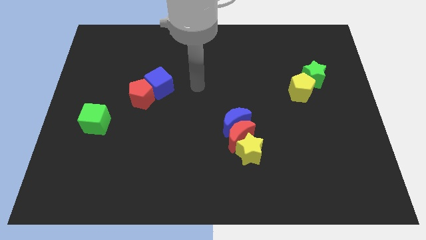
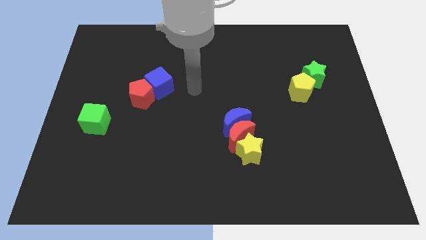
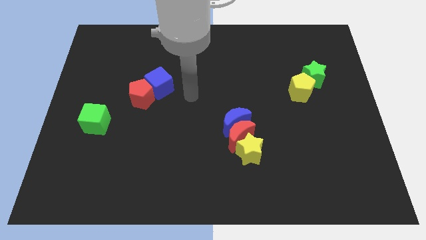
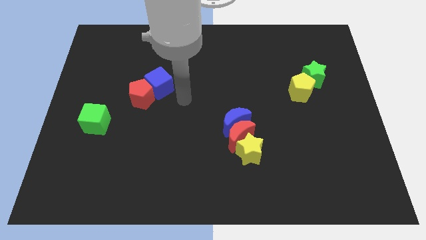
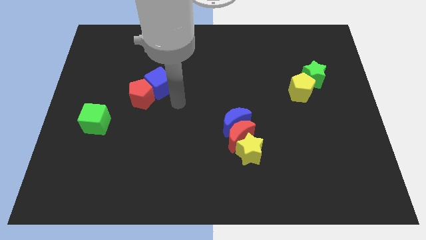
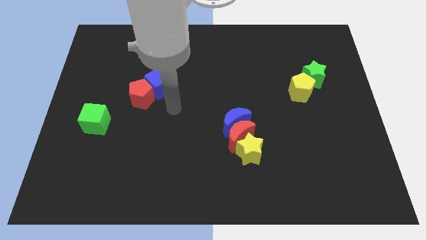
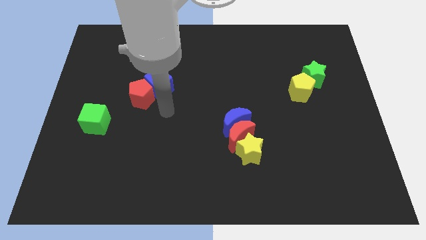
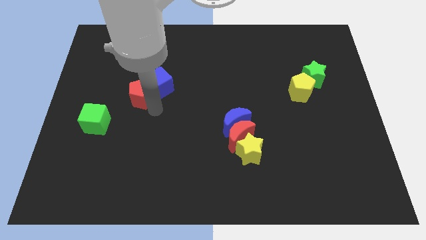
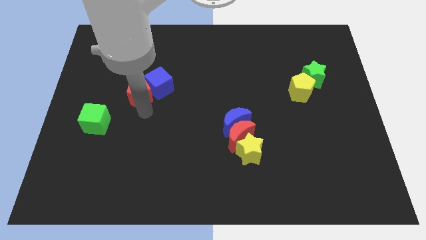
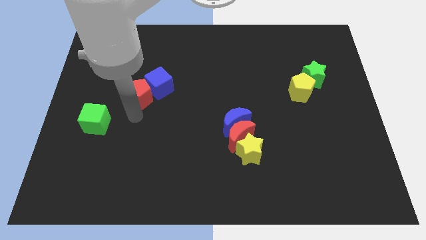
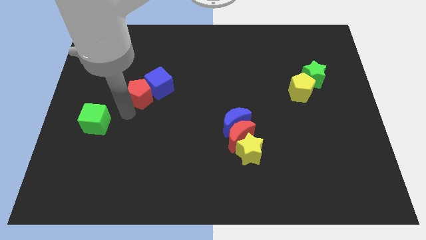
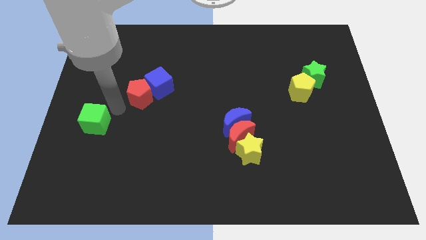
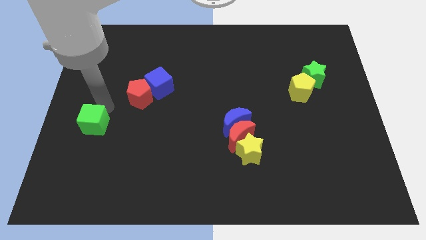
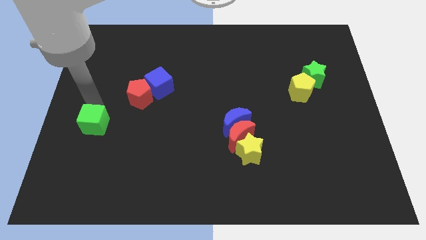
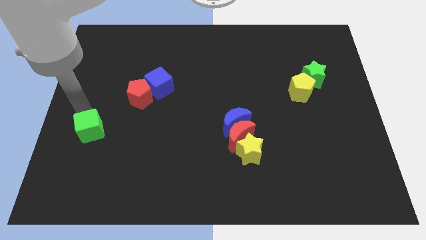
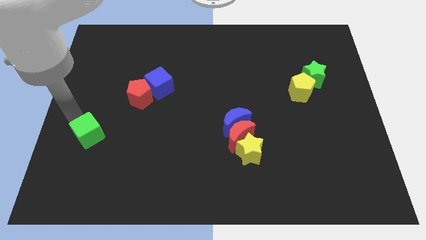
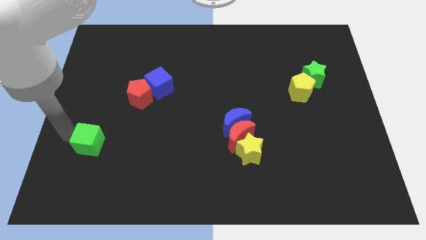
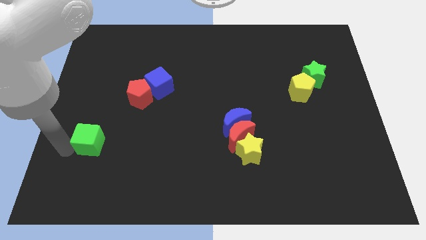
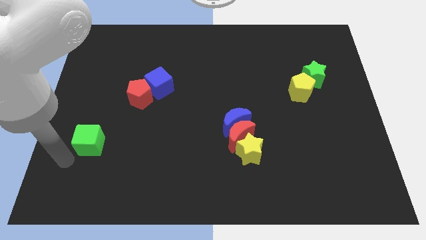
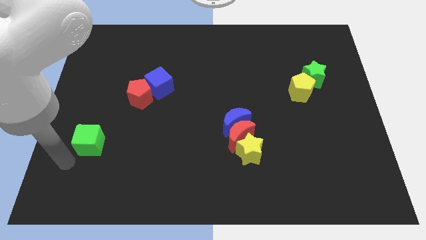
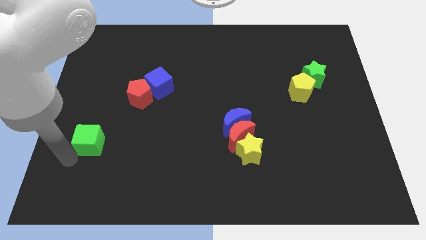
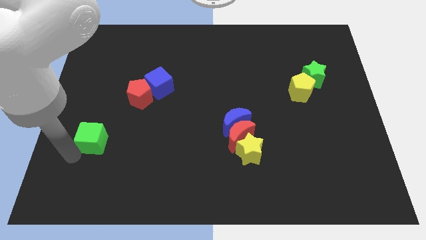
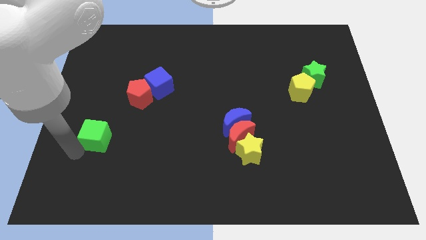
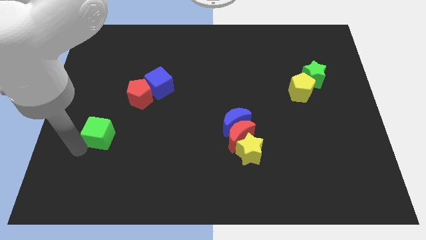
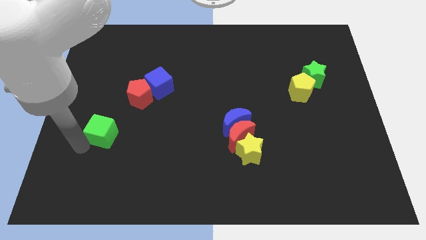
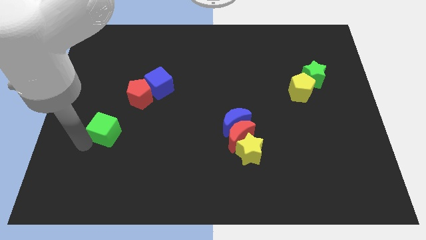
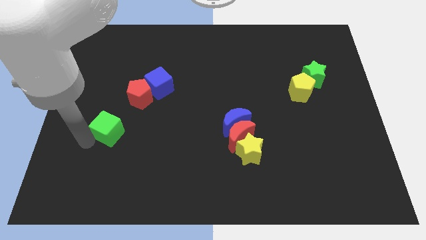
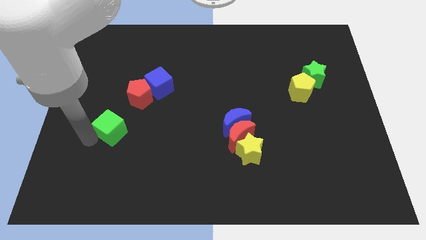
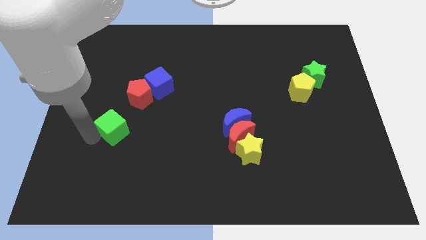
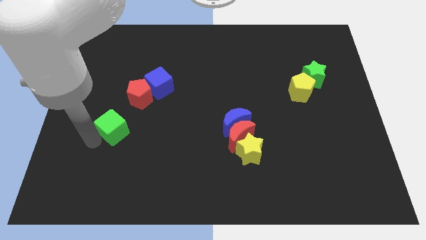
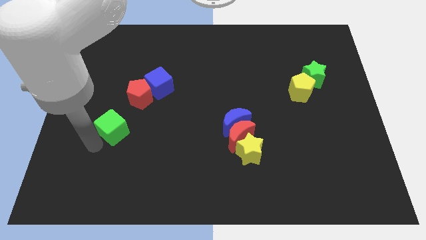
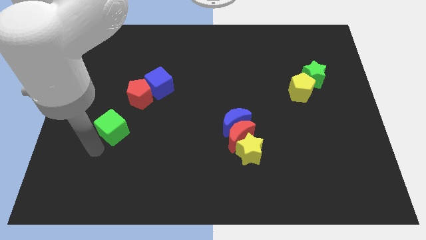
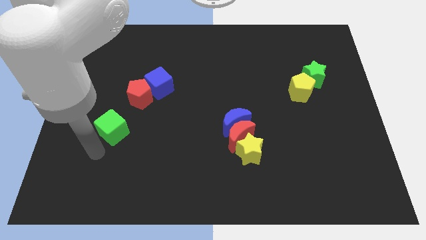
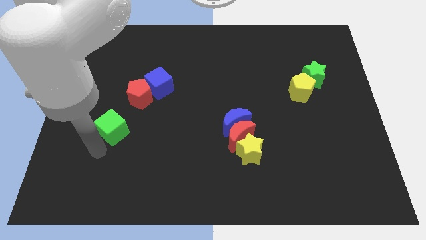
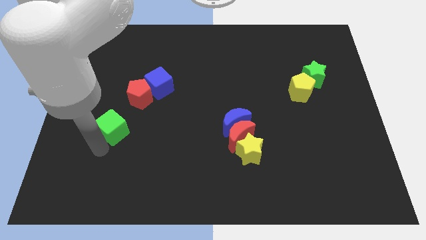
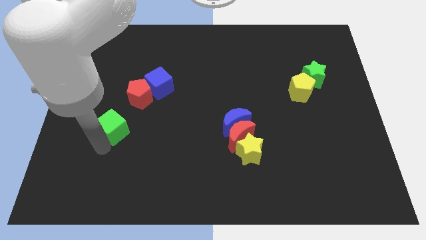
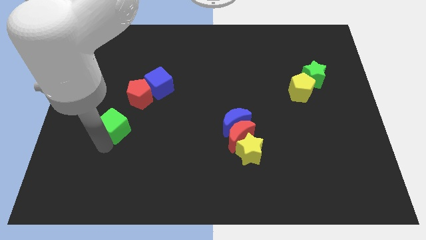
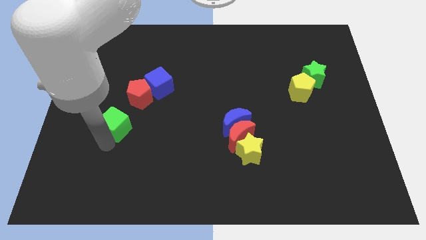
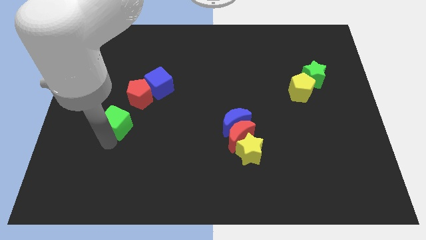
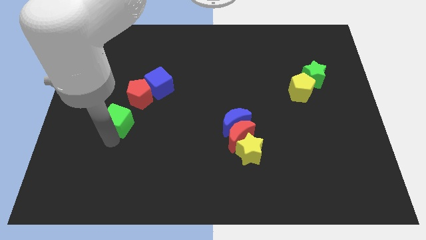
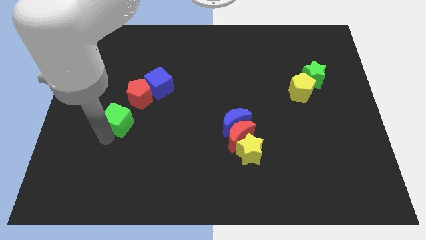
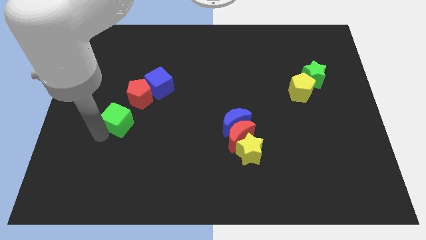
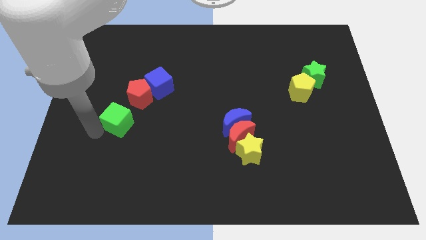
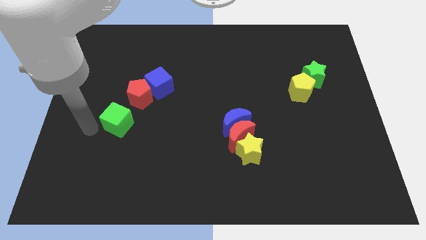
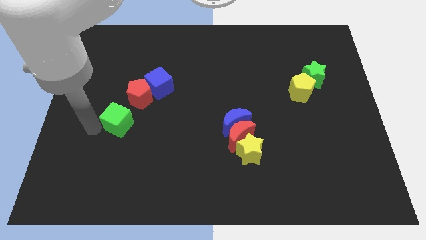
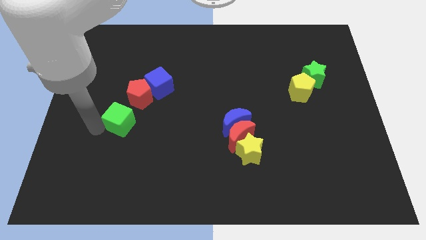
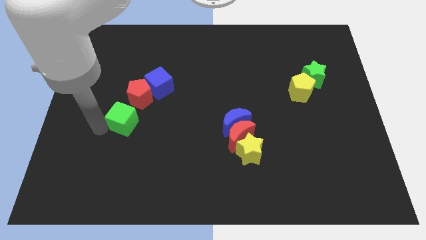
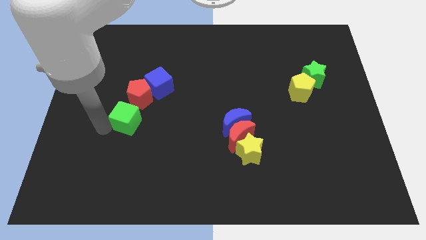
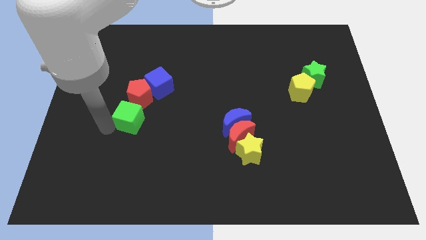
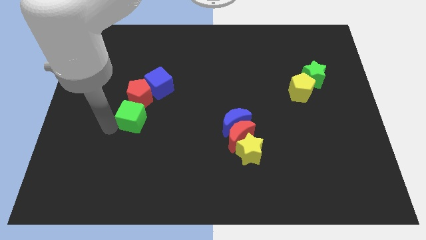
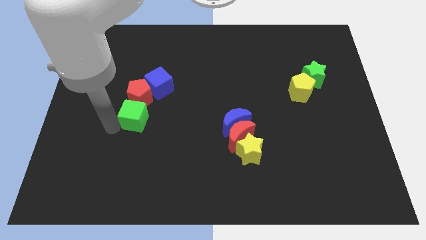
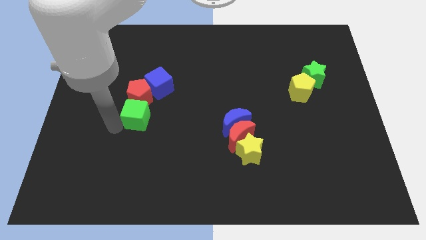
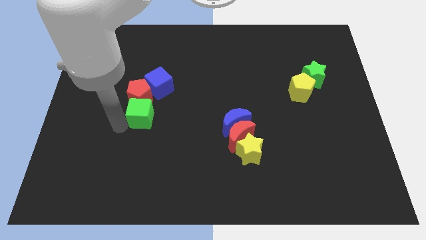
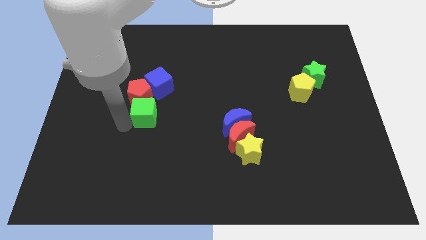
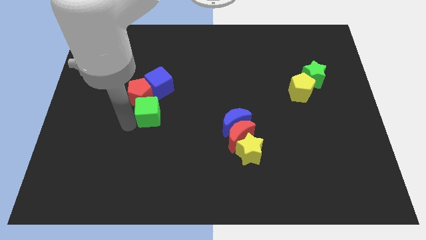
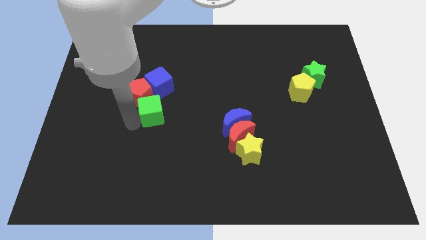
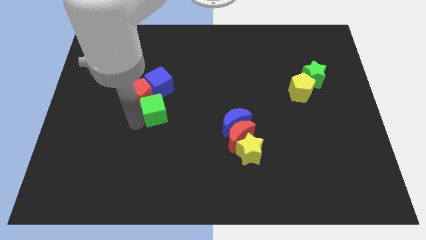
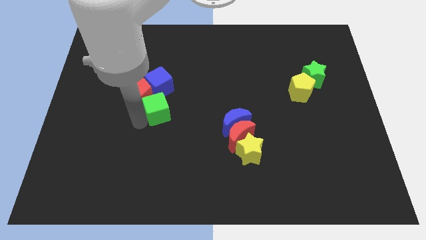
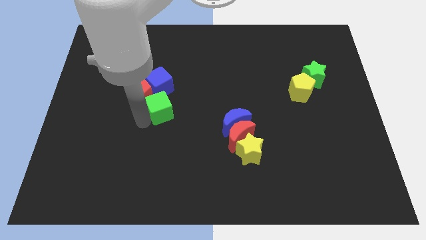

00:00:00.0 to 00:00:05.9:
push the green cube diagonally down and to the right of the blue cube

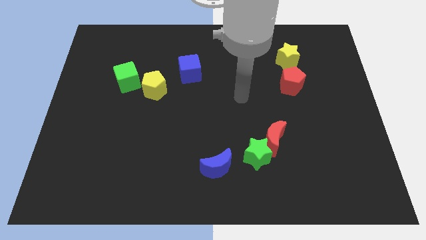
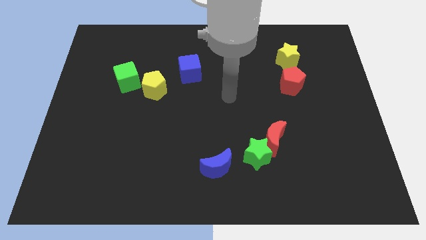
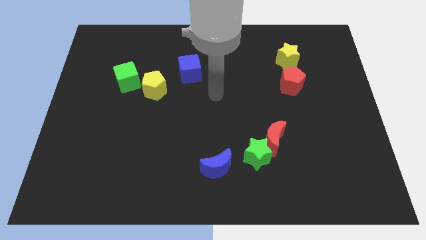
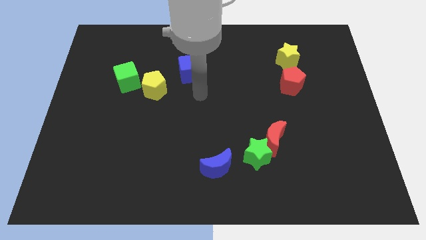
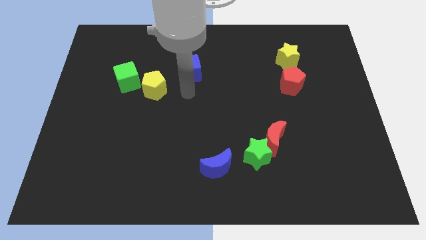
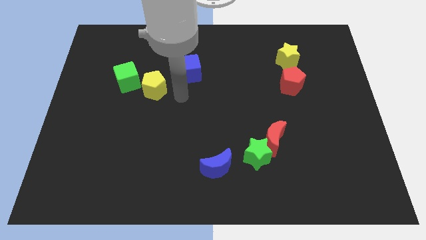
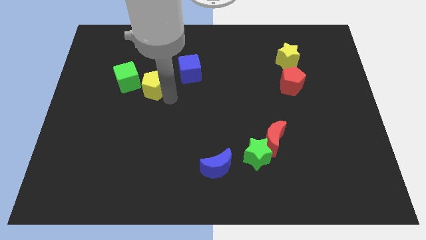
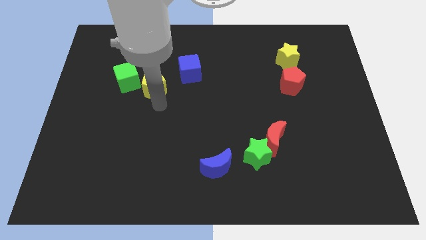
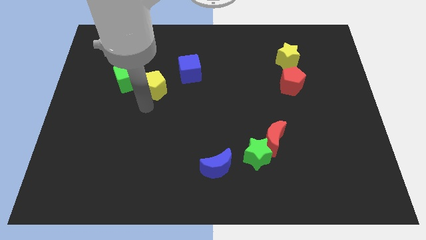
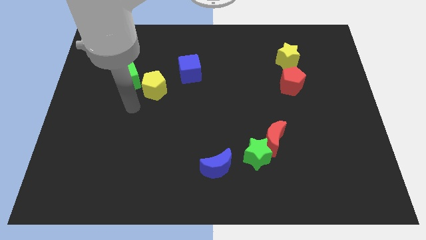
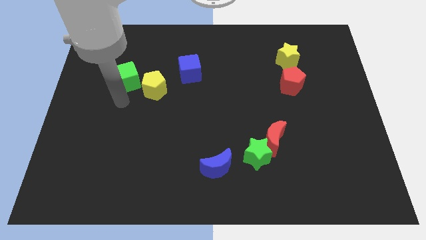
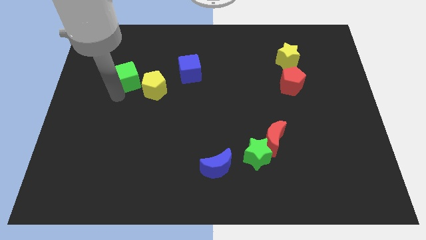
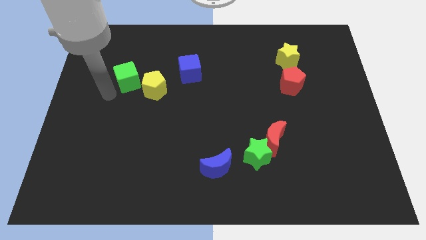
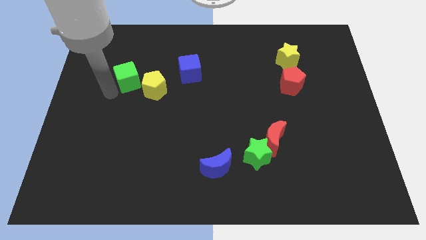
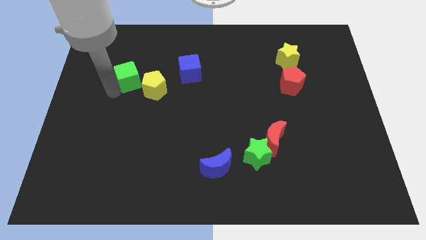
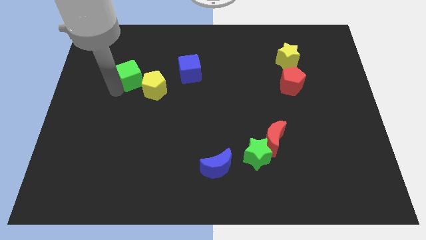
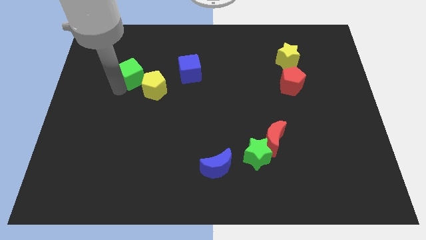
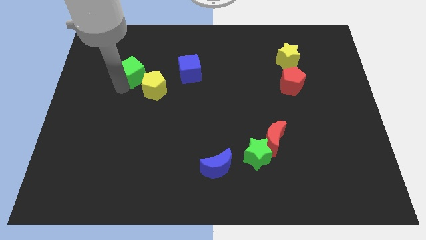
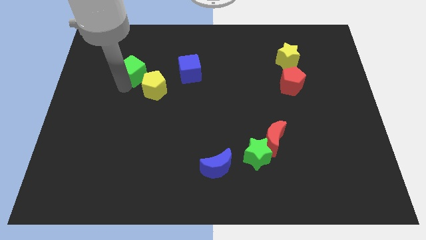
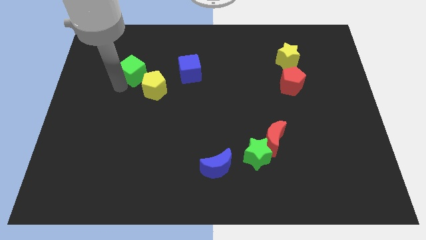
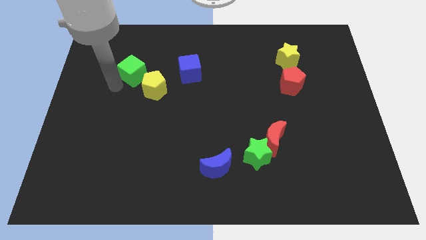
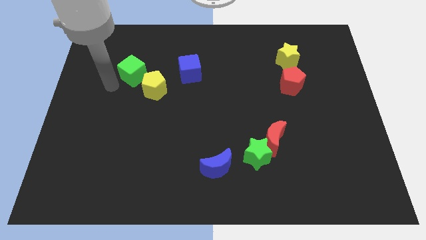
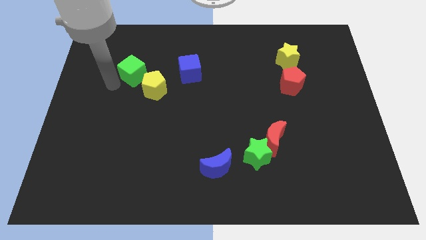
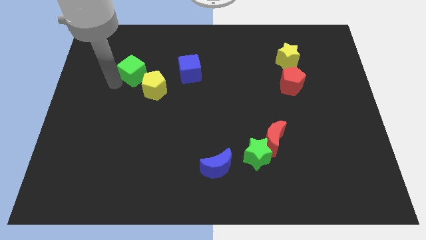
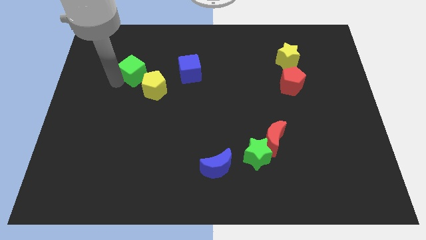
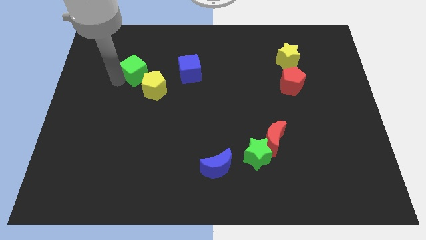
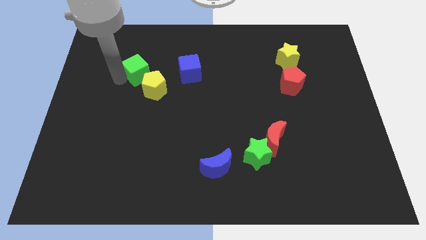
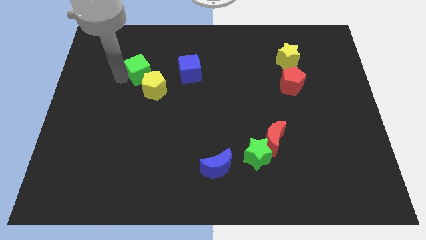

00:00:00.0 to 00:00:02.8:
slide the green cube above the yellow pentagon
